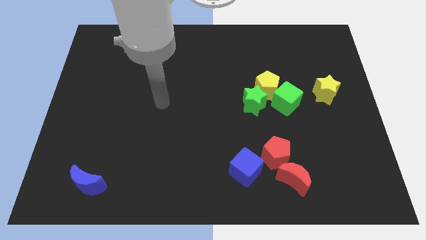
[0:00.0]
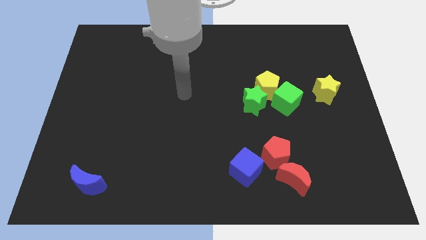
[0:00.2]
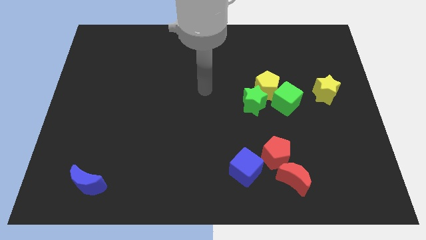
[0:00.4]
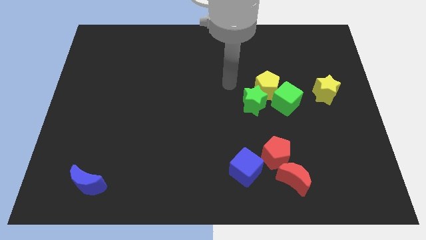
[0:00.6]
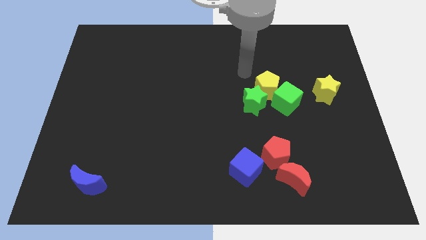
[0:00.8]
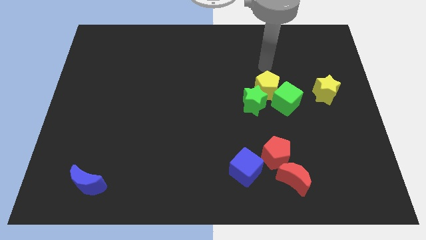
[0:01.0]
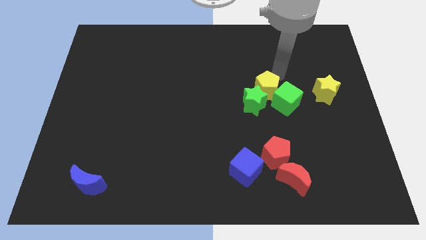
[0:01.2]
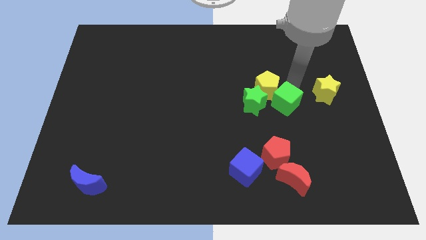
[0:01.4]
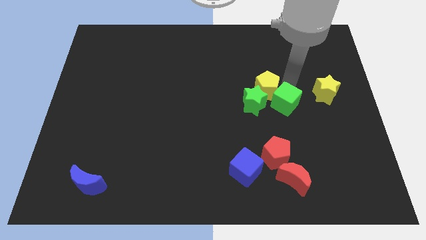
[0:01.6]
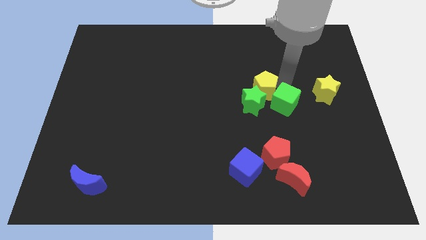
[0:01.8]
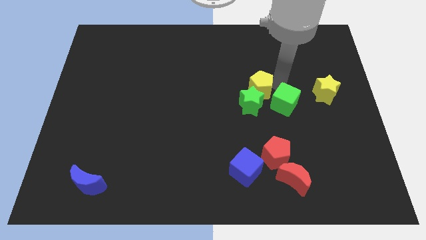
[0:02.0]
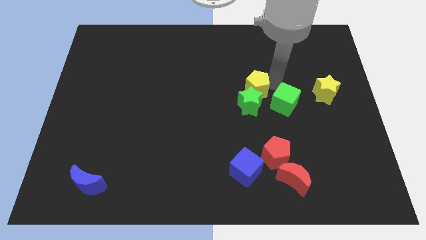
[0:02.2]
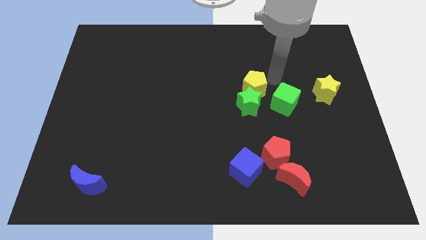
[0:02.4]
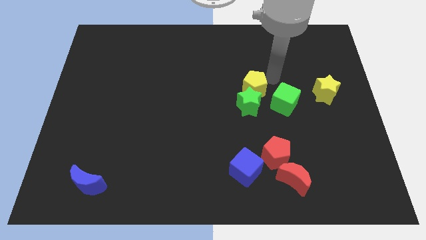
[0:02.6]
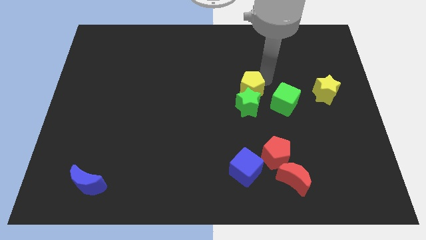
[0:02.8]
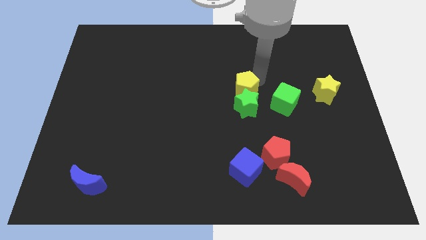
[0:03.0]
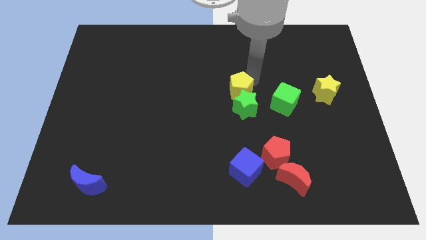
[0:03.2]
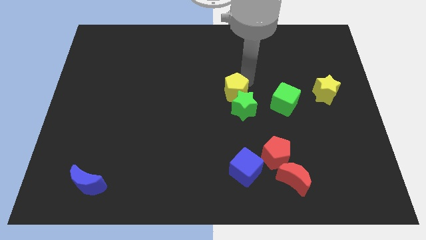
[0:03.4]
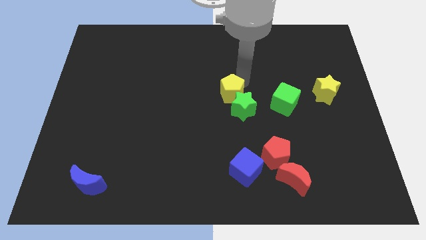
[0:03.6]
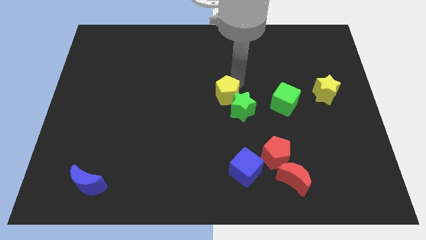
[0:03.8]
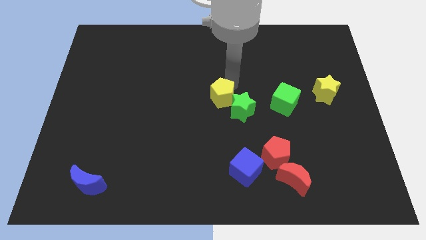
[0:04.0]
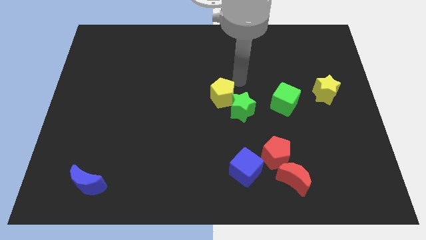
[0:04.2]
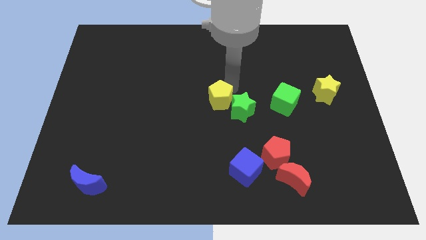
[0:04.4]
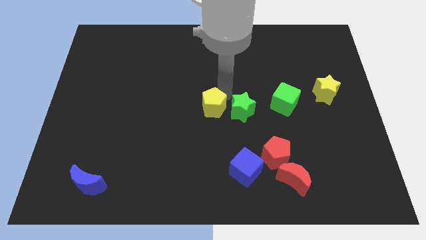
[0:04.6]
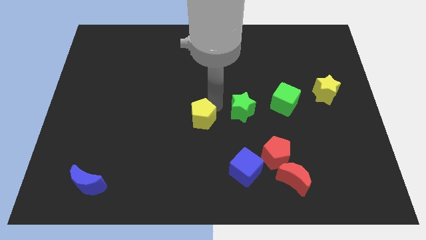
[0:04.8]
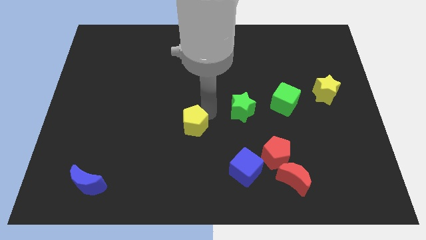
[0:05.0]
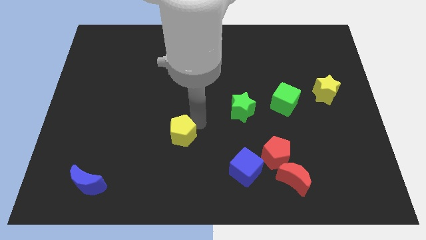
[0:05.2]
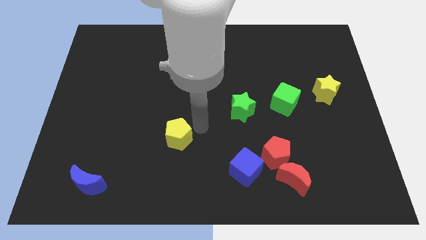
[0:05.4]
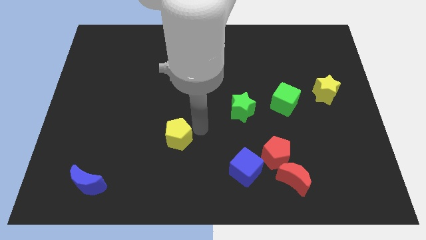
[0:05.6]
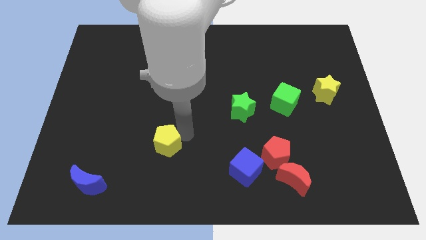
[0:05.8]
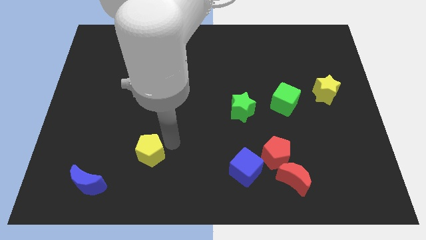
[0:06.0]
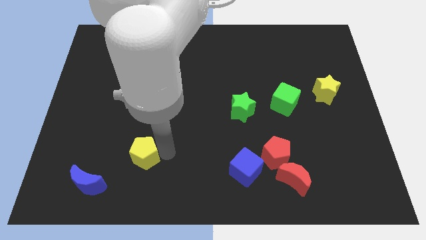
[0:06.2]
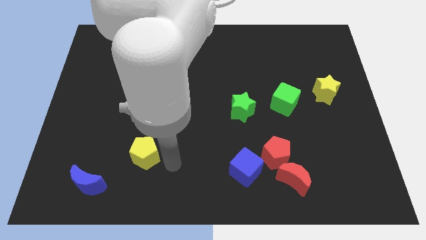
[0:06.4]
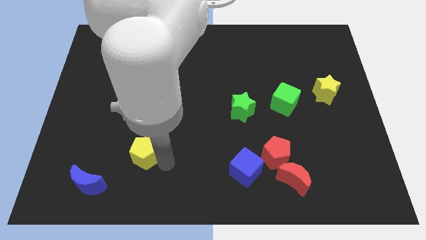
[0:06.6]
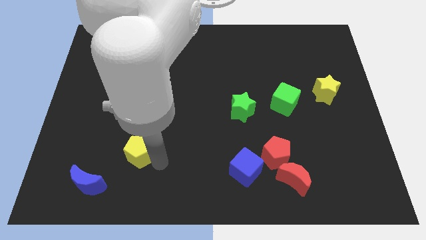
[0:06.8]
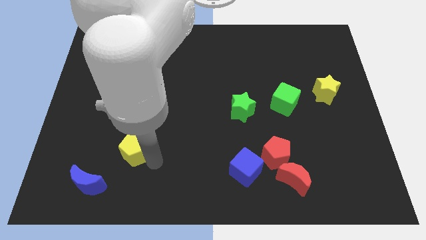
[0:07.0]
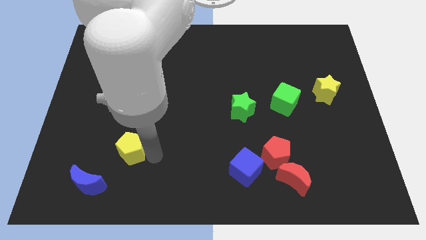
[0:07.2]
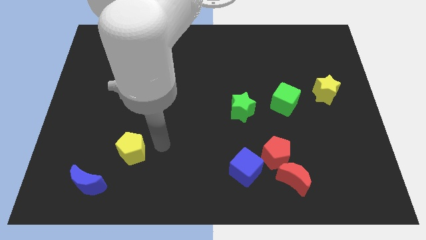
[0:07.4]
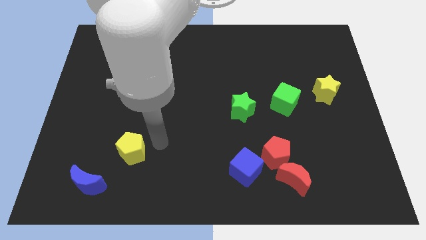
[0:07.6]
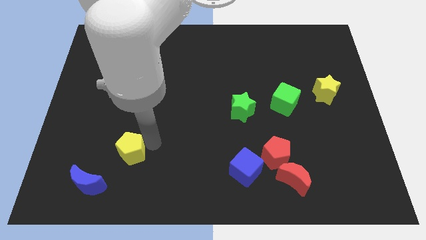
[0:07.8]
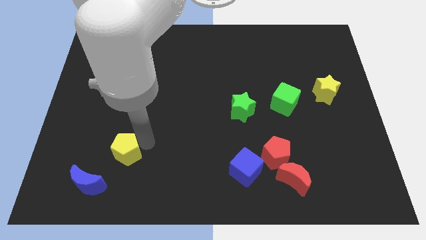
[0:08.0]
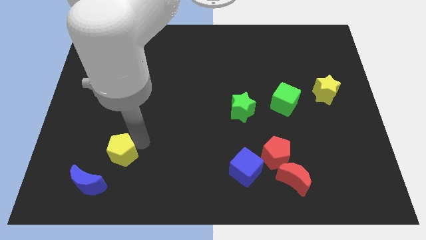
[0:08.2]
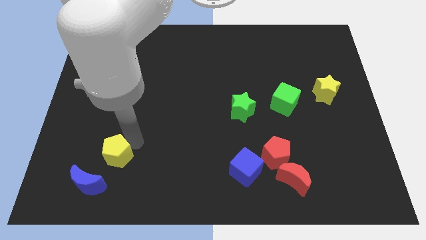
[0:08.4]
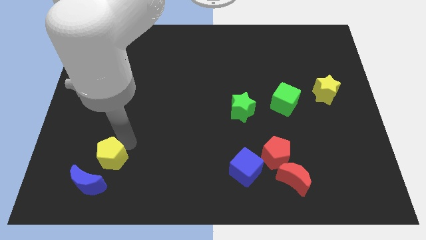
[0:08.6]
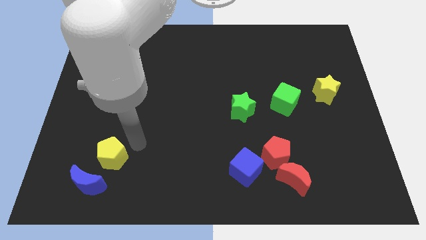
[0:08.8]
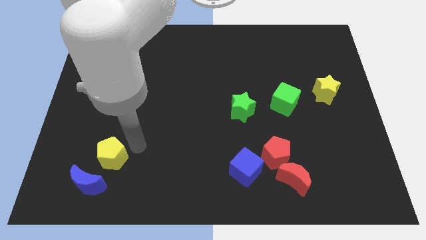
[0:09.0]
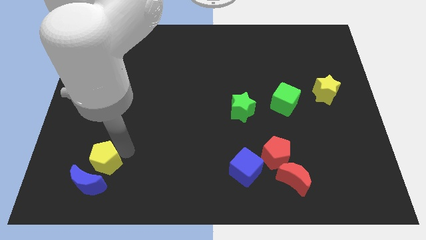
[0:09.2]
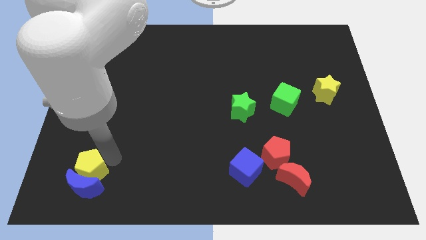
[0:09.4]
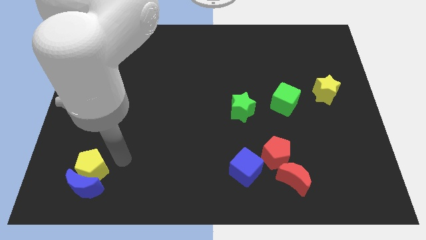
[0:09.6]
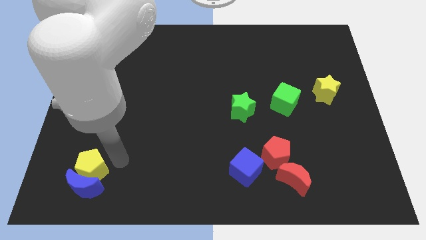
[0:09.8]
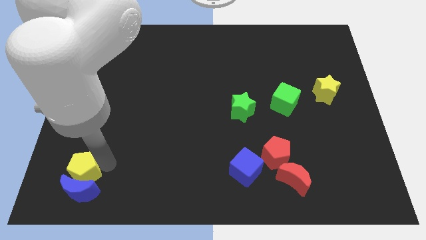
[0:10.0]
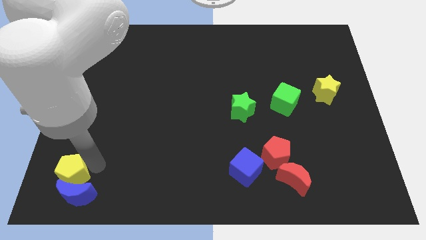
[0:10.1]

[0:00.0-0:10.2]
slide the yellow pentagon to the bottom left of the board

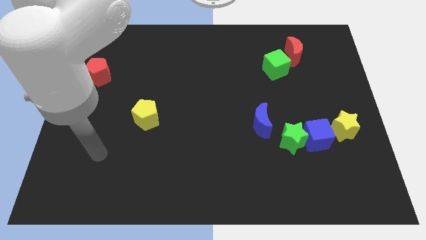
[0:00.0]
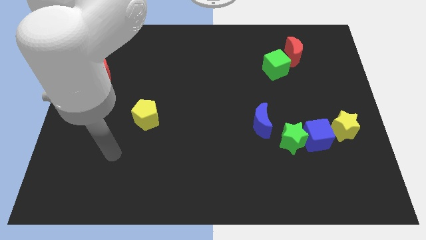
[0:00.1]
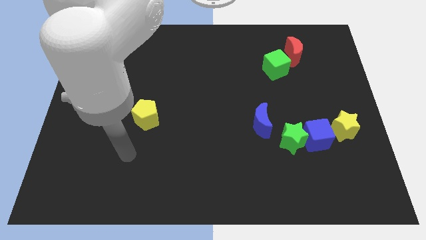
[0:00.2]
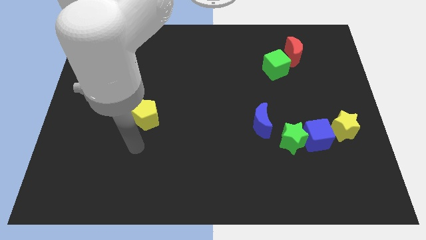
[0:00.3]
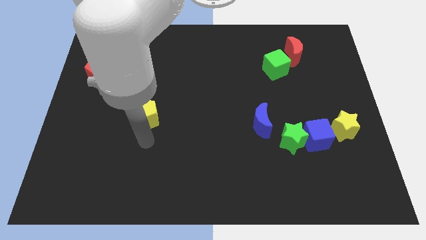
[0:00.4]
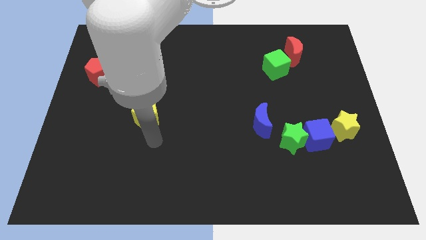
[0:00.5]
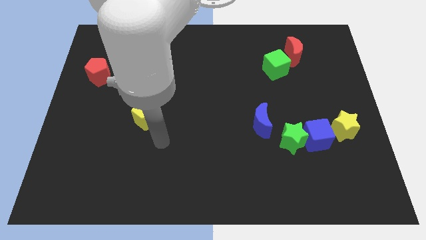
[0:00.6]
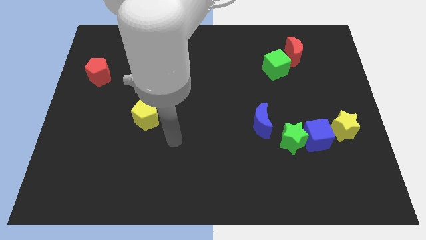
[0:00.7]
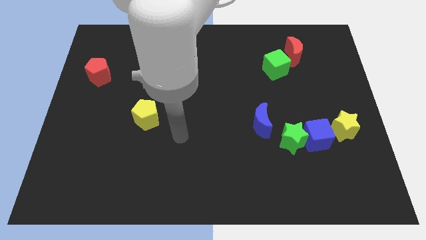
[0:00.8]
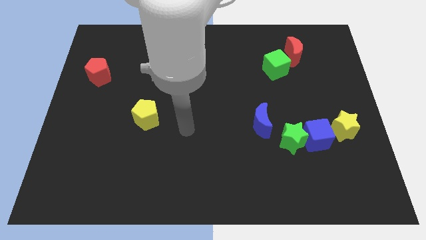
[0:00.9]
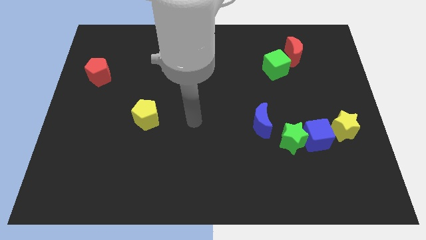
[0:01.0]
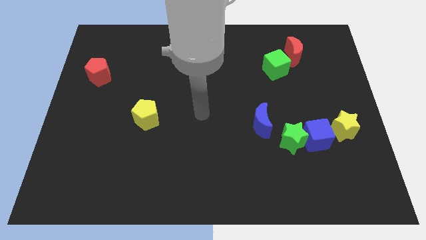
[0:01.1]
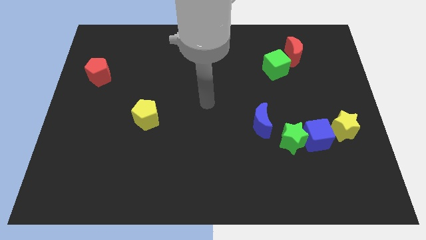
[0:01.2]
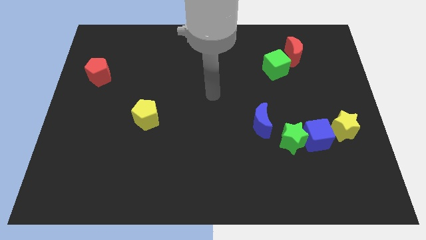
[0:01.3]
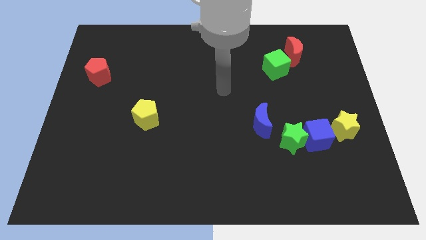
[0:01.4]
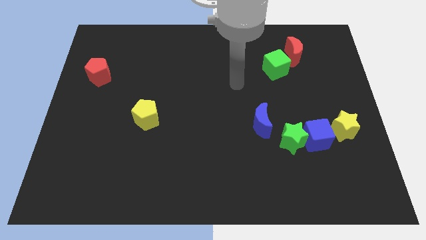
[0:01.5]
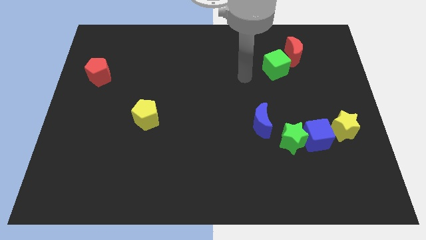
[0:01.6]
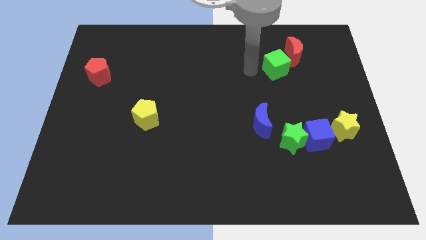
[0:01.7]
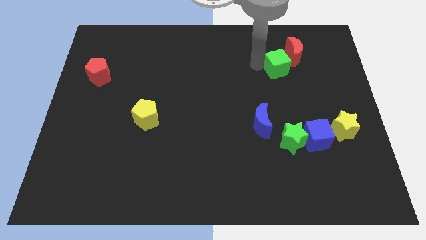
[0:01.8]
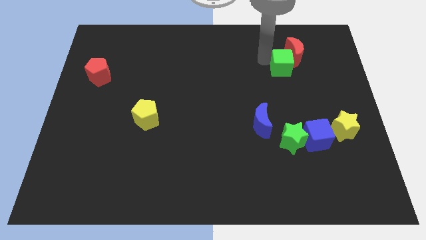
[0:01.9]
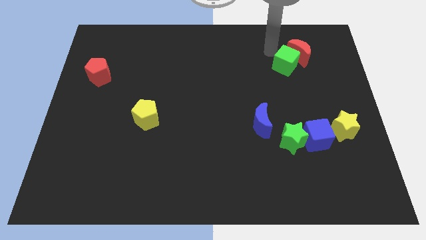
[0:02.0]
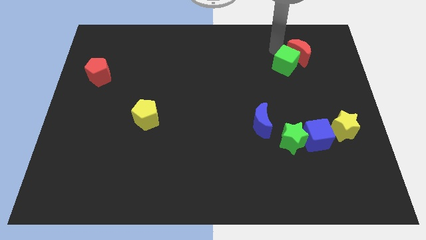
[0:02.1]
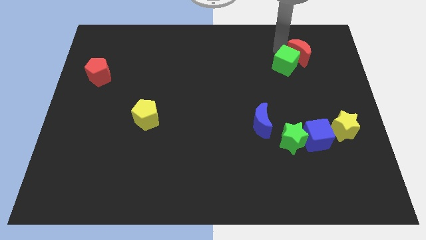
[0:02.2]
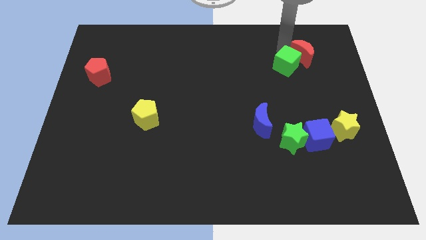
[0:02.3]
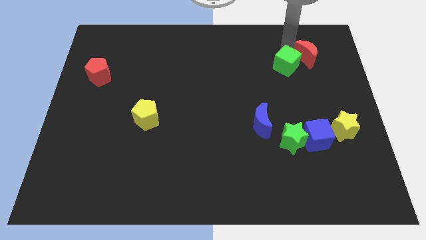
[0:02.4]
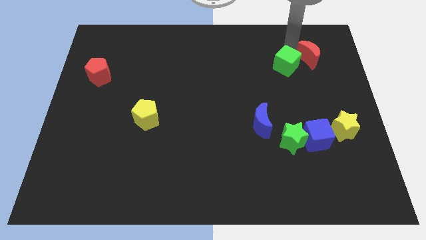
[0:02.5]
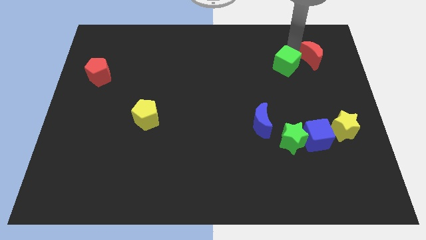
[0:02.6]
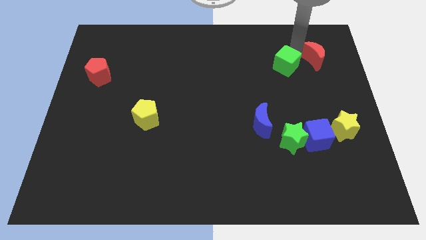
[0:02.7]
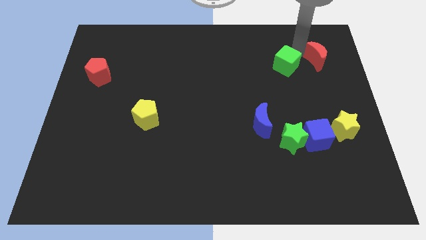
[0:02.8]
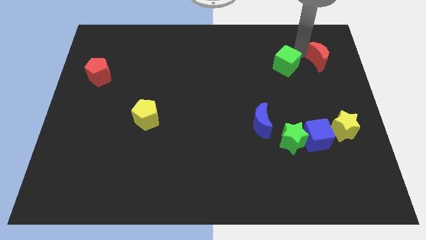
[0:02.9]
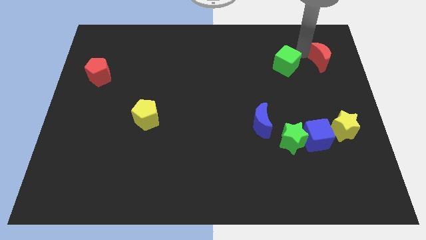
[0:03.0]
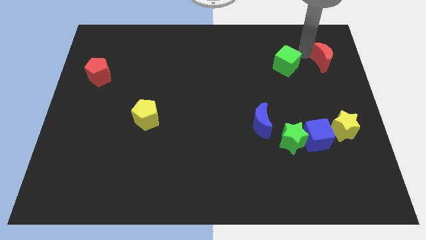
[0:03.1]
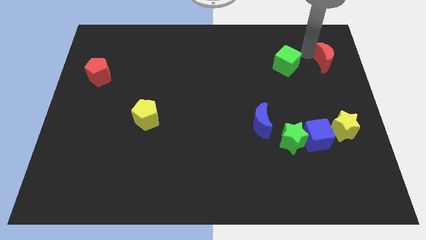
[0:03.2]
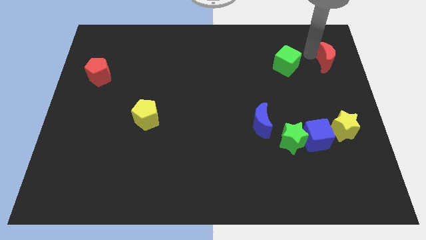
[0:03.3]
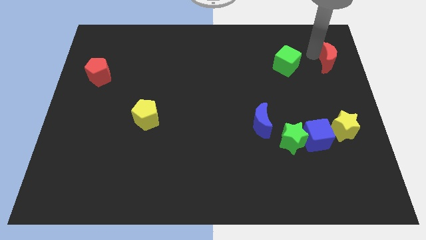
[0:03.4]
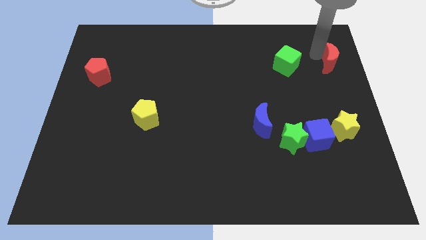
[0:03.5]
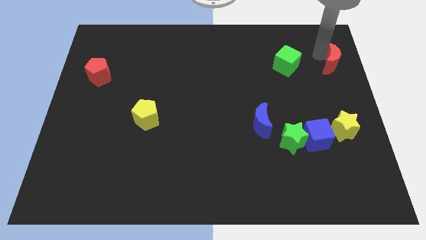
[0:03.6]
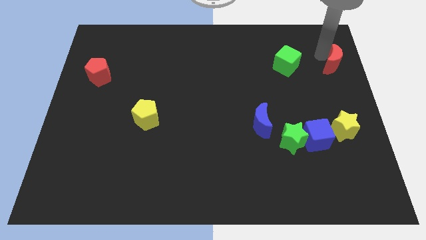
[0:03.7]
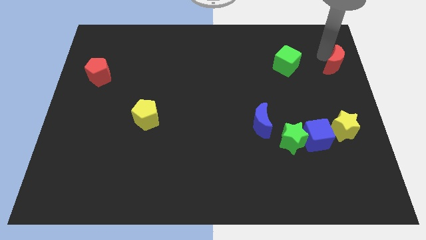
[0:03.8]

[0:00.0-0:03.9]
put the red moon to the right side
